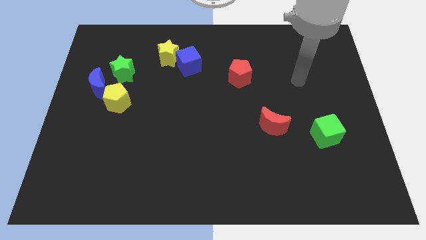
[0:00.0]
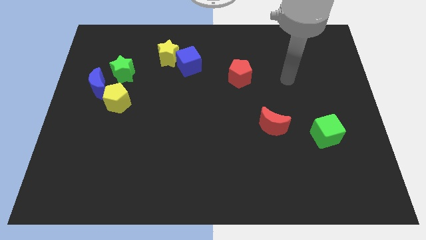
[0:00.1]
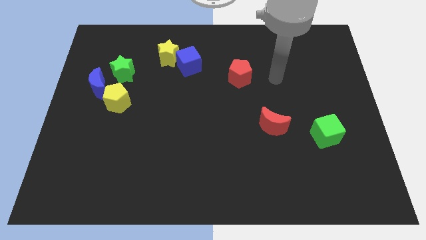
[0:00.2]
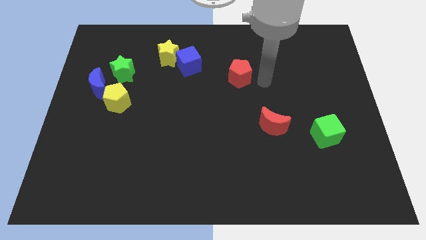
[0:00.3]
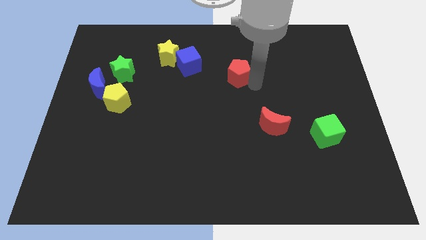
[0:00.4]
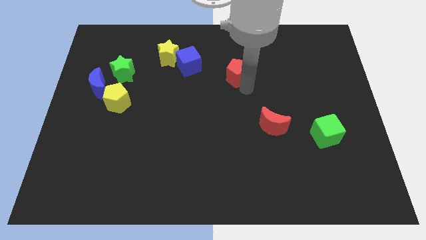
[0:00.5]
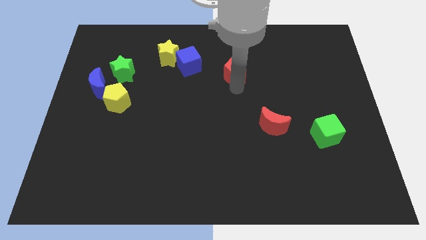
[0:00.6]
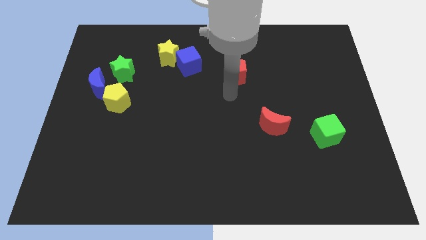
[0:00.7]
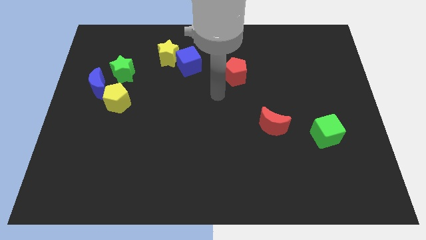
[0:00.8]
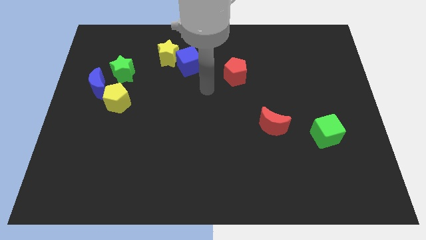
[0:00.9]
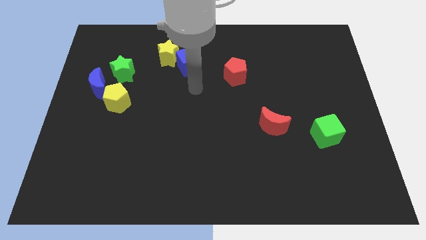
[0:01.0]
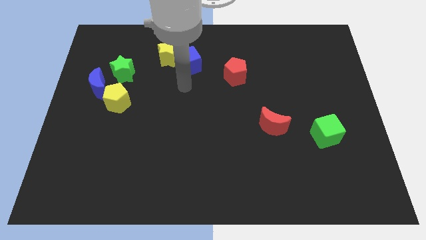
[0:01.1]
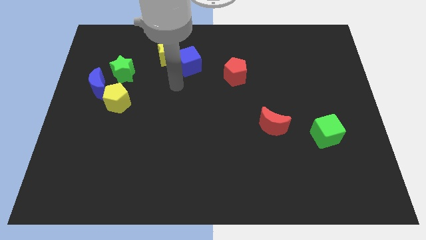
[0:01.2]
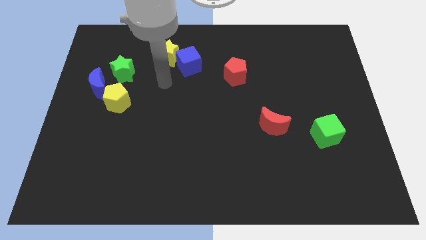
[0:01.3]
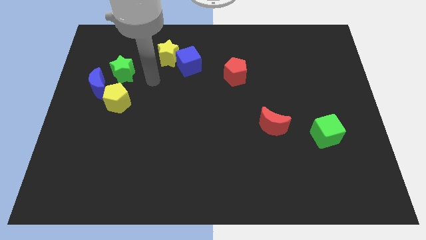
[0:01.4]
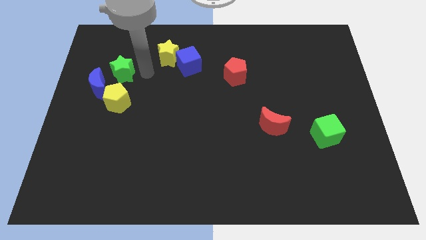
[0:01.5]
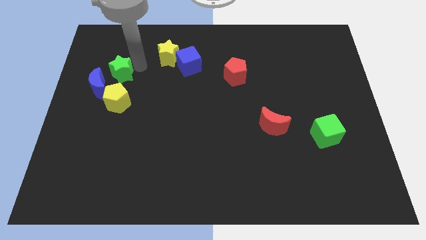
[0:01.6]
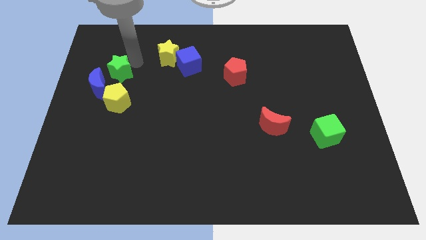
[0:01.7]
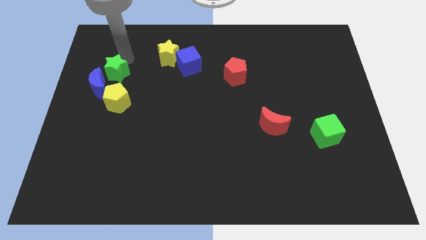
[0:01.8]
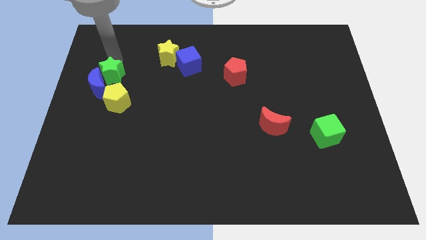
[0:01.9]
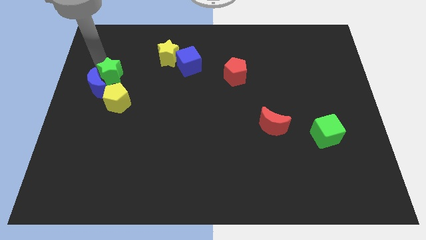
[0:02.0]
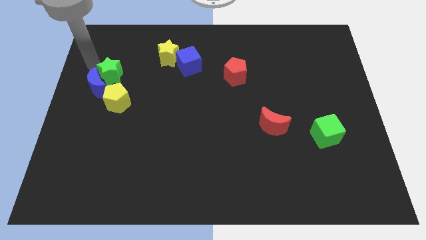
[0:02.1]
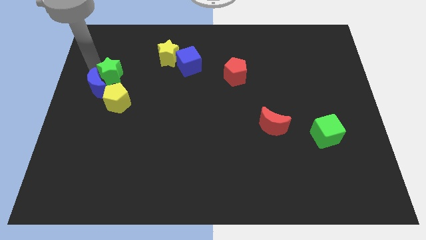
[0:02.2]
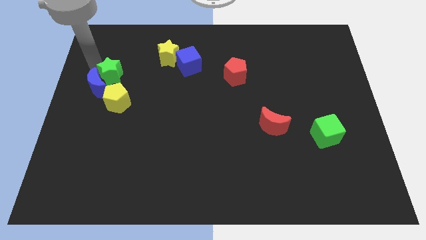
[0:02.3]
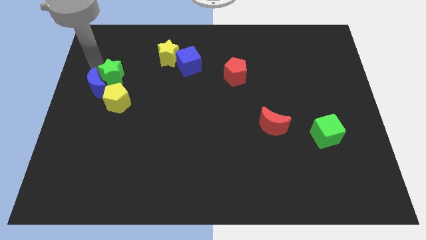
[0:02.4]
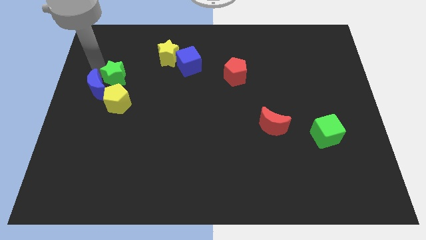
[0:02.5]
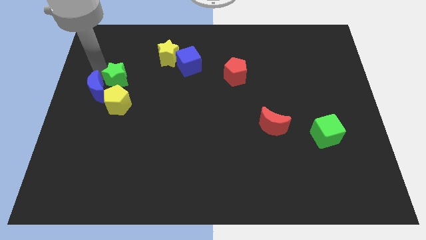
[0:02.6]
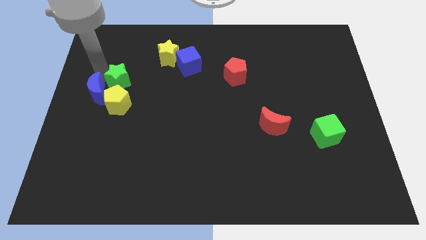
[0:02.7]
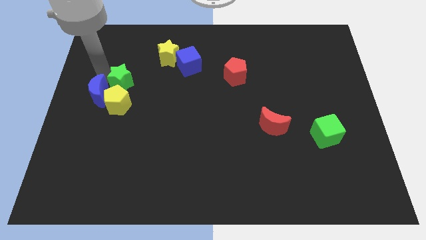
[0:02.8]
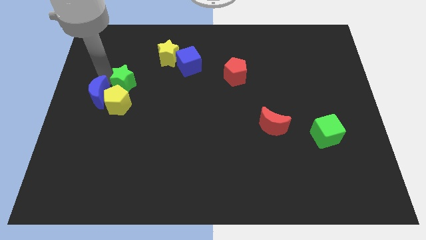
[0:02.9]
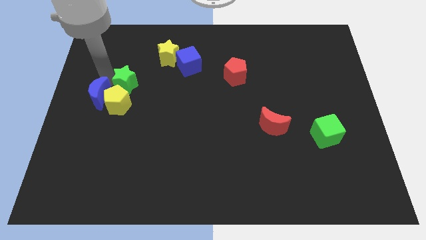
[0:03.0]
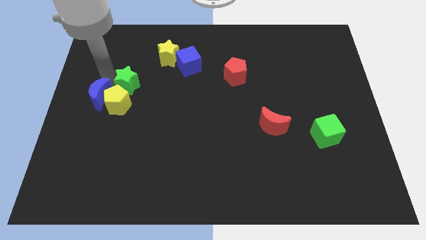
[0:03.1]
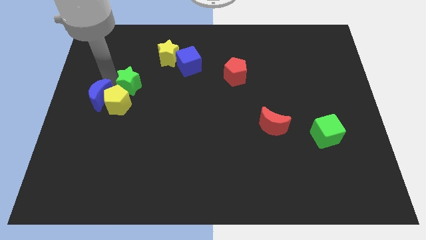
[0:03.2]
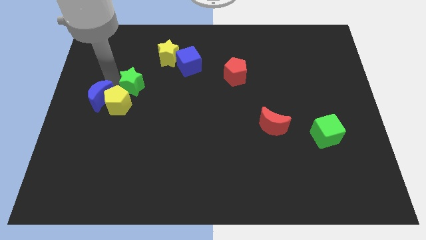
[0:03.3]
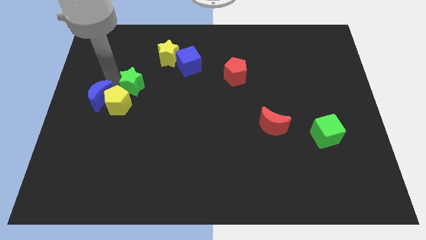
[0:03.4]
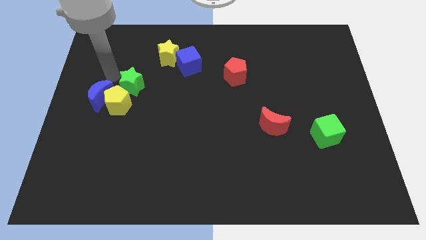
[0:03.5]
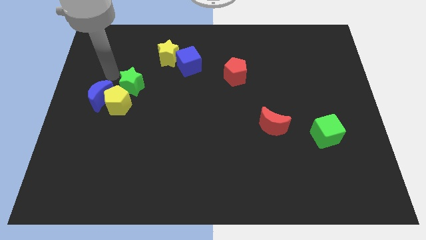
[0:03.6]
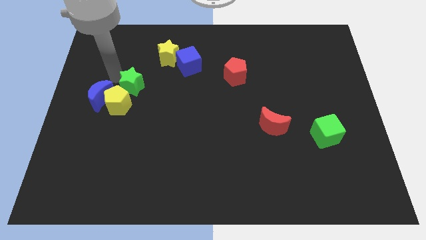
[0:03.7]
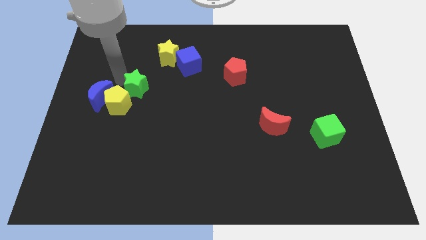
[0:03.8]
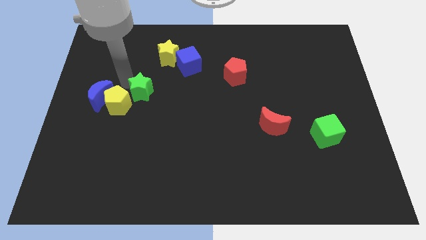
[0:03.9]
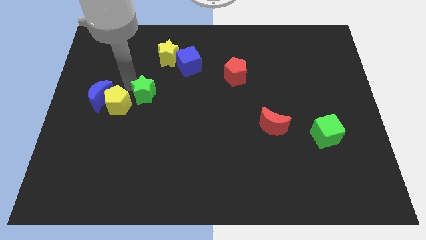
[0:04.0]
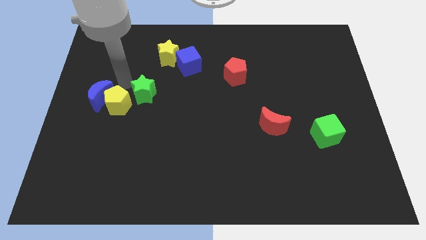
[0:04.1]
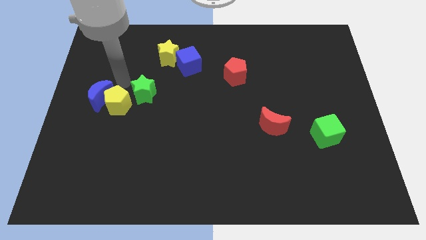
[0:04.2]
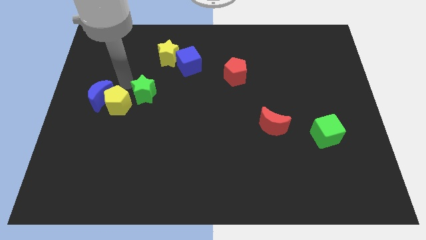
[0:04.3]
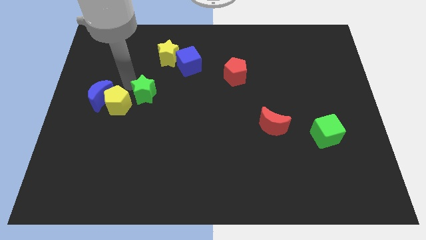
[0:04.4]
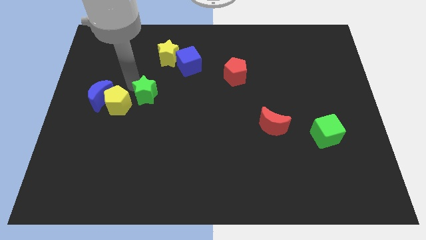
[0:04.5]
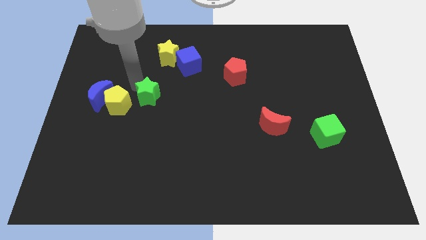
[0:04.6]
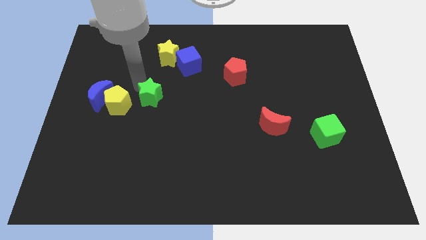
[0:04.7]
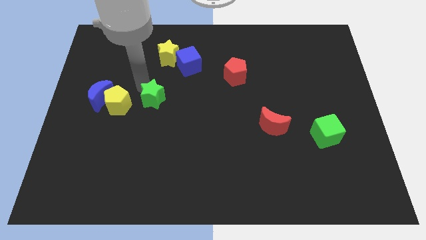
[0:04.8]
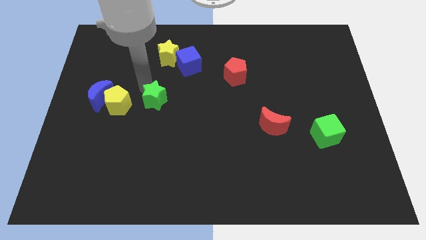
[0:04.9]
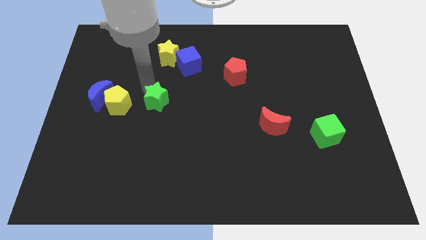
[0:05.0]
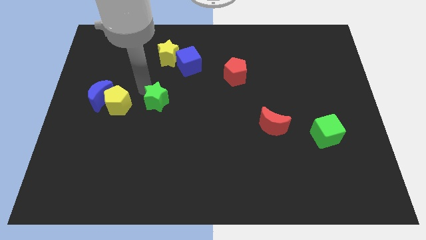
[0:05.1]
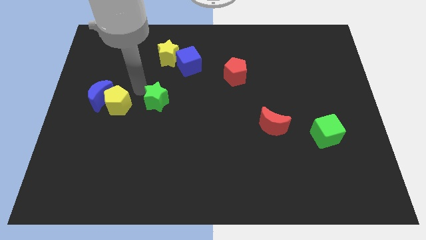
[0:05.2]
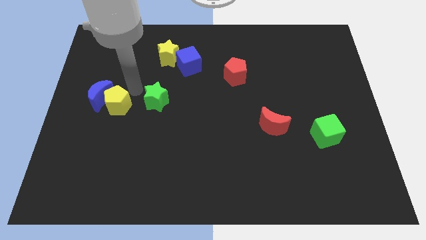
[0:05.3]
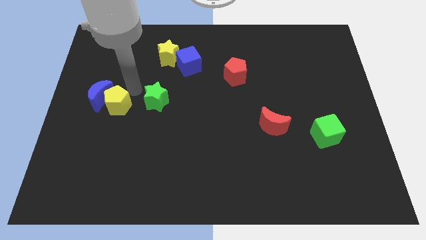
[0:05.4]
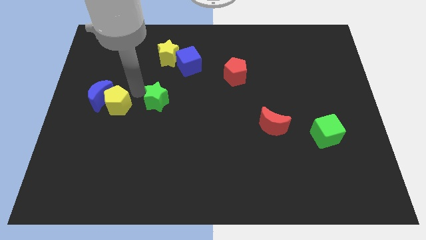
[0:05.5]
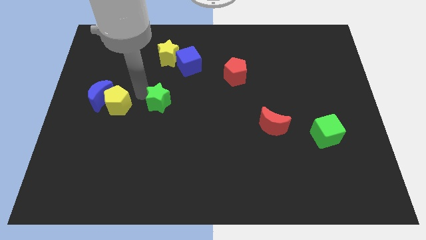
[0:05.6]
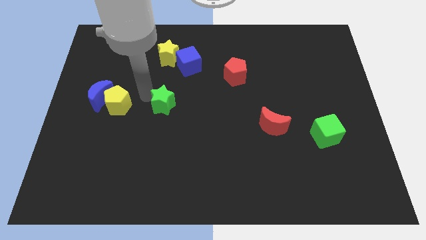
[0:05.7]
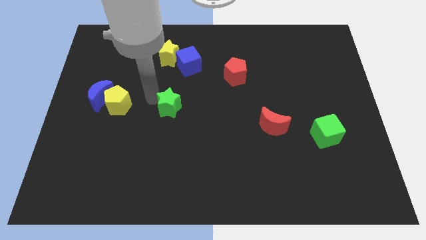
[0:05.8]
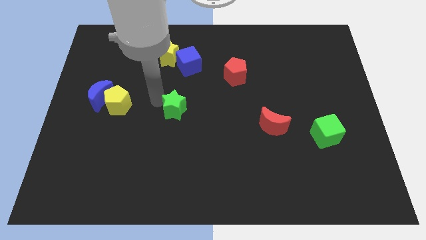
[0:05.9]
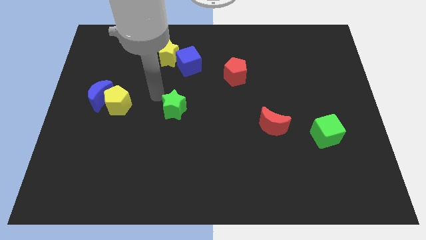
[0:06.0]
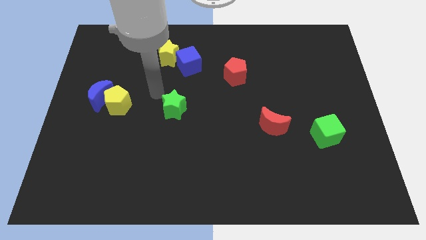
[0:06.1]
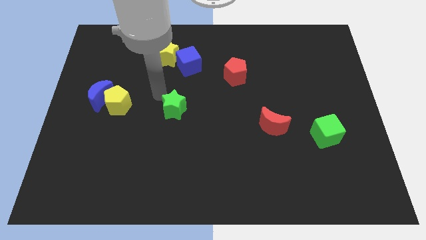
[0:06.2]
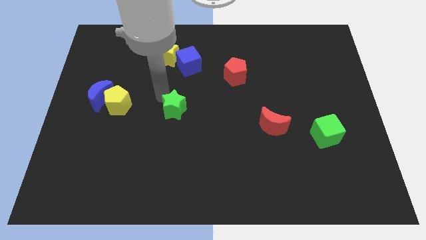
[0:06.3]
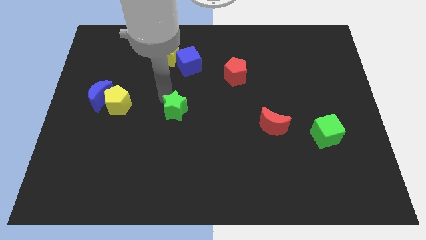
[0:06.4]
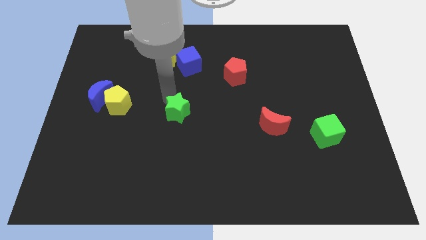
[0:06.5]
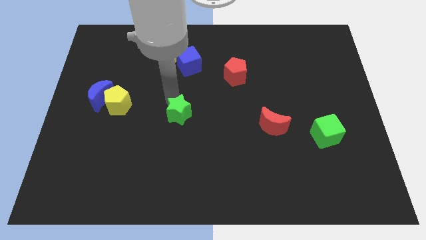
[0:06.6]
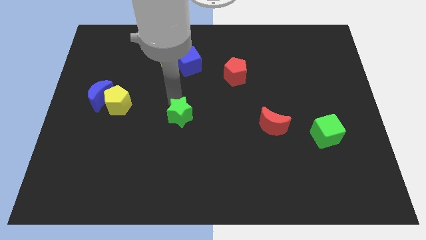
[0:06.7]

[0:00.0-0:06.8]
push the green star downwards and to the right diagonally

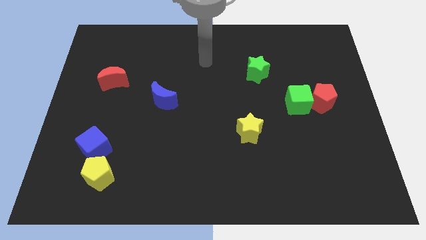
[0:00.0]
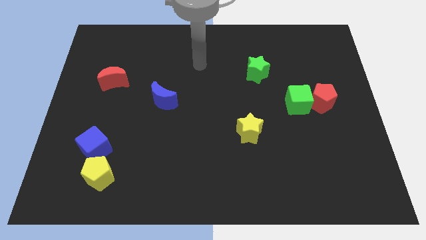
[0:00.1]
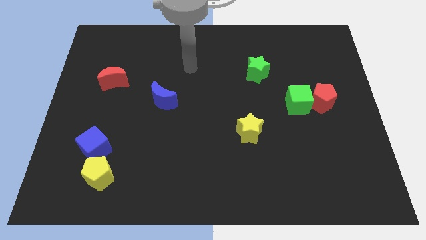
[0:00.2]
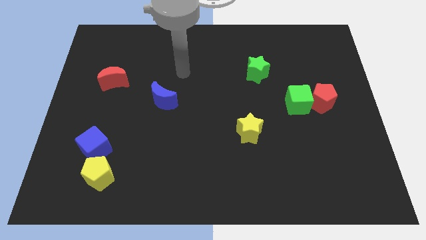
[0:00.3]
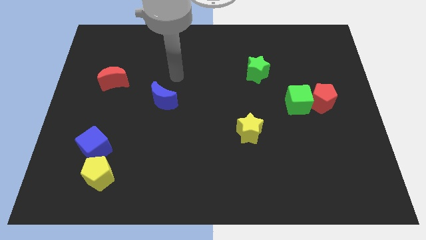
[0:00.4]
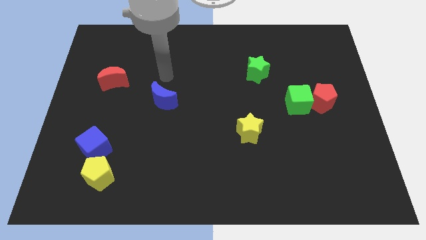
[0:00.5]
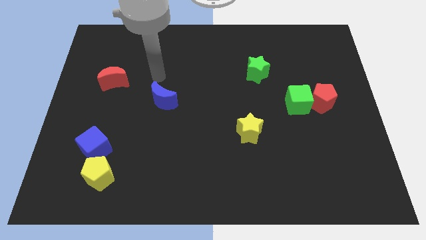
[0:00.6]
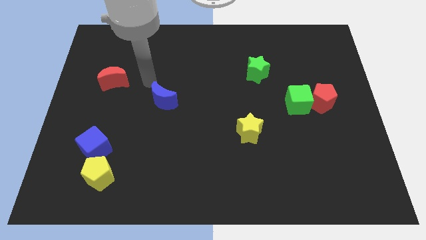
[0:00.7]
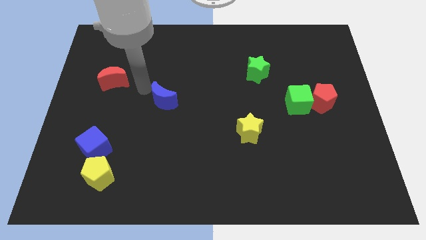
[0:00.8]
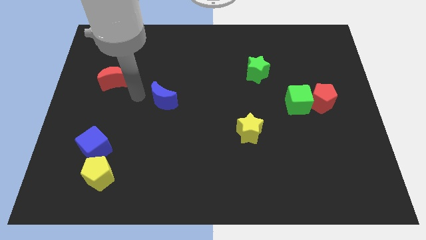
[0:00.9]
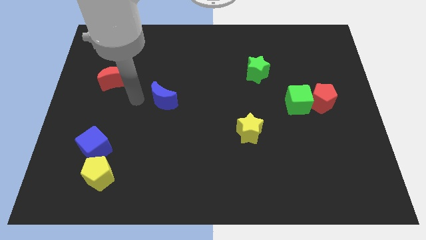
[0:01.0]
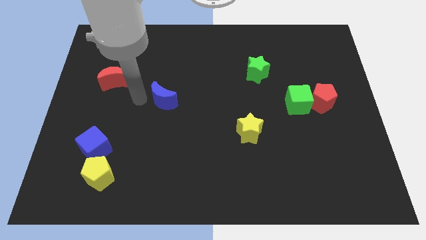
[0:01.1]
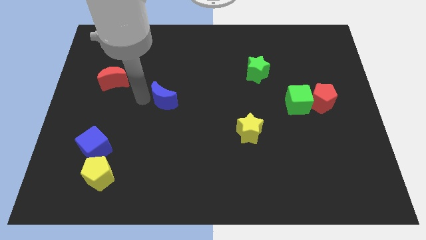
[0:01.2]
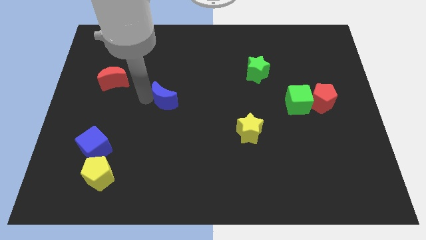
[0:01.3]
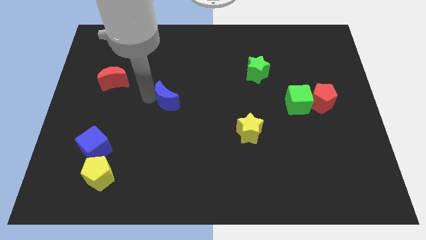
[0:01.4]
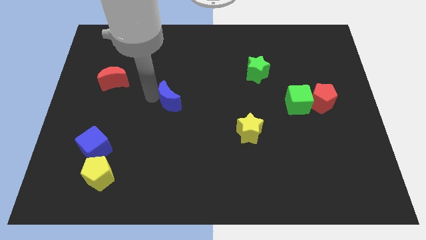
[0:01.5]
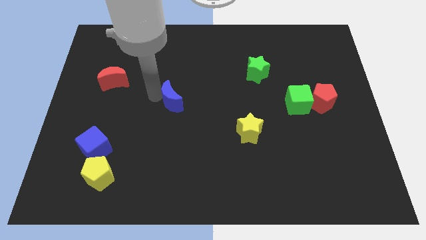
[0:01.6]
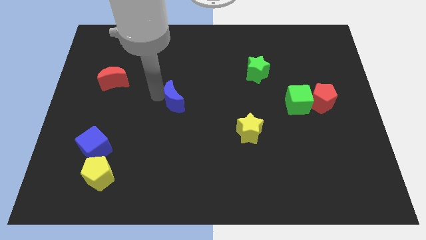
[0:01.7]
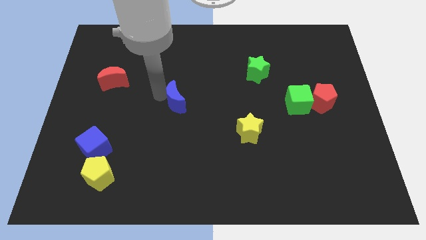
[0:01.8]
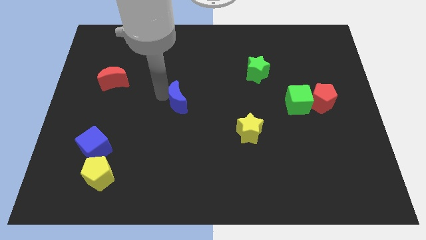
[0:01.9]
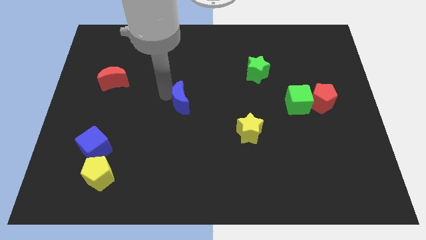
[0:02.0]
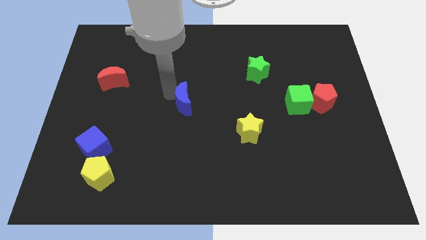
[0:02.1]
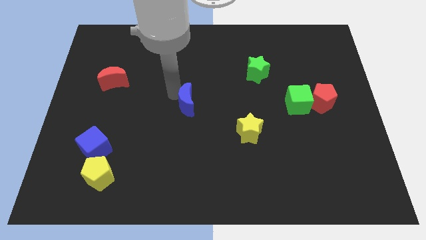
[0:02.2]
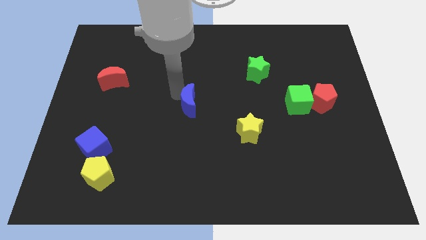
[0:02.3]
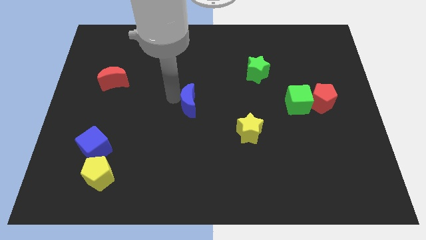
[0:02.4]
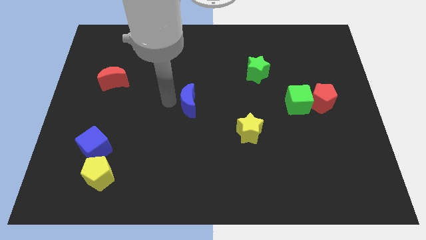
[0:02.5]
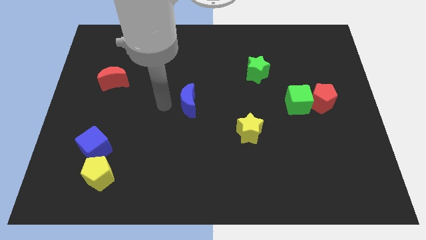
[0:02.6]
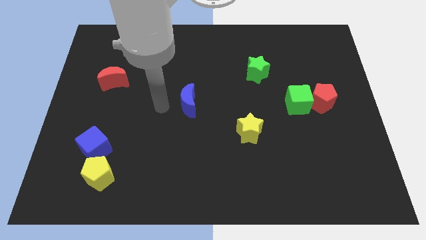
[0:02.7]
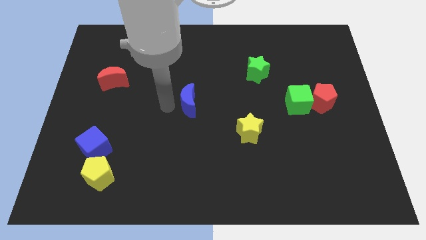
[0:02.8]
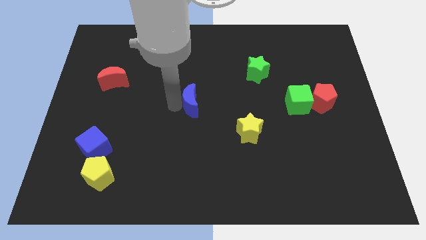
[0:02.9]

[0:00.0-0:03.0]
push the blue moon right a bit
